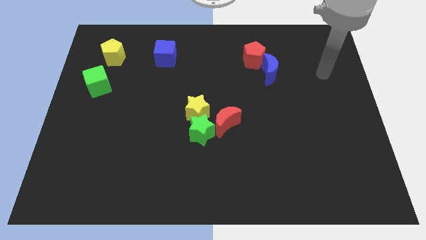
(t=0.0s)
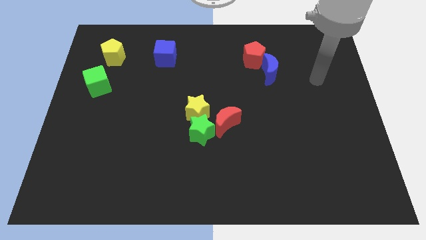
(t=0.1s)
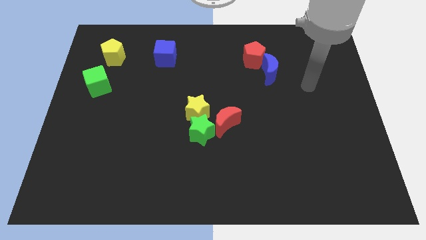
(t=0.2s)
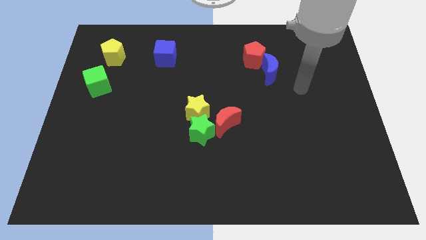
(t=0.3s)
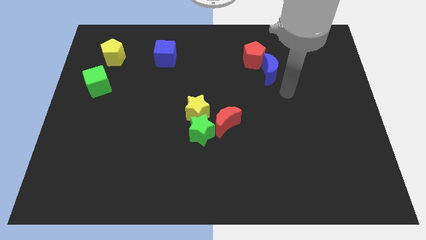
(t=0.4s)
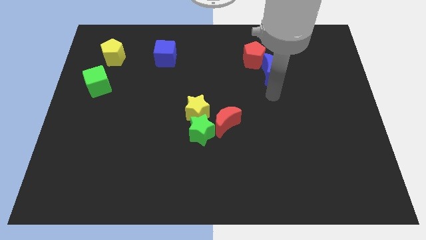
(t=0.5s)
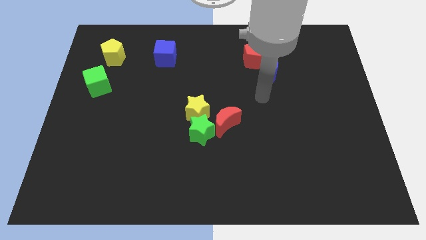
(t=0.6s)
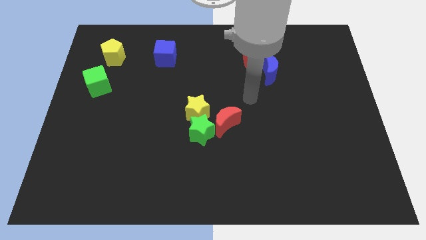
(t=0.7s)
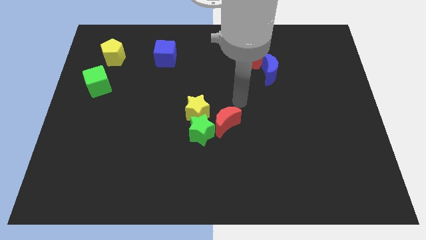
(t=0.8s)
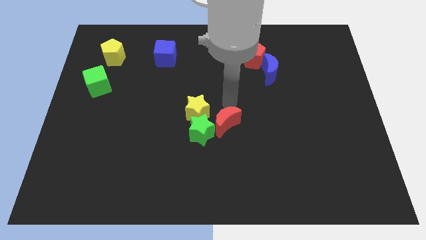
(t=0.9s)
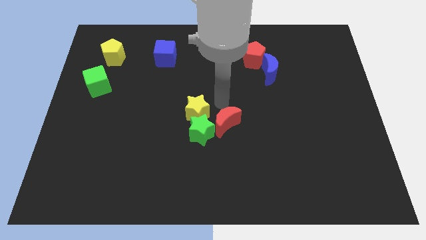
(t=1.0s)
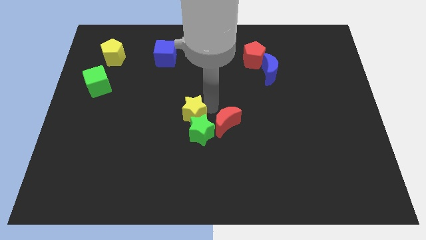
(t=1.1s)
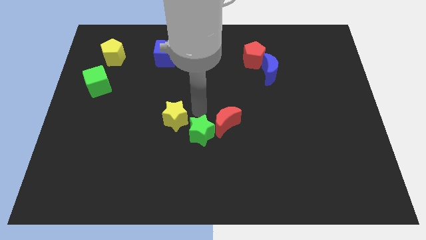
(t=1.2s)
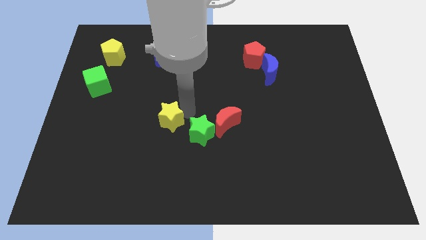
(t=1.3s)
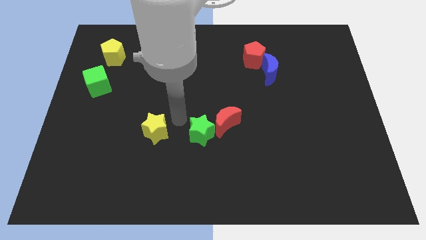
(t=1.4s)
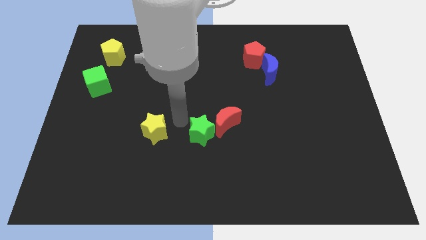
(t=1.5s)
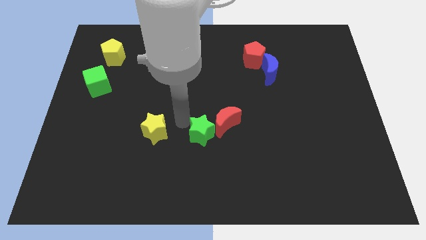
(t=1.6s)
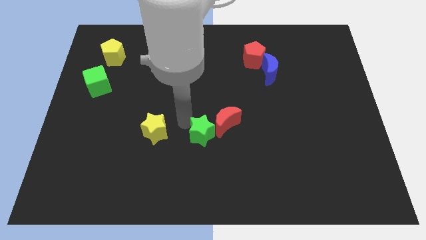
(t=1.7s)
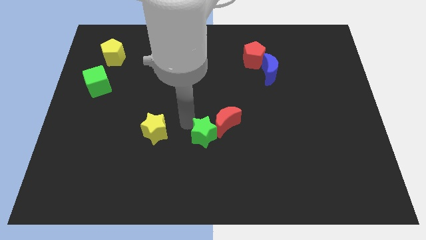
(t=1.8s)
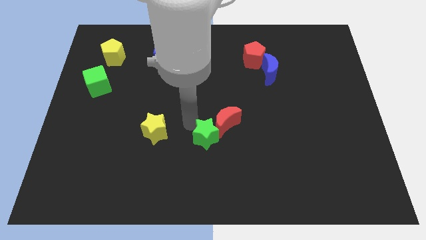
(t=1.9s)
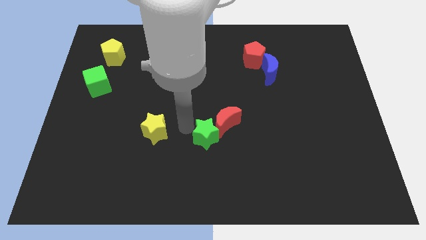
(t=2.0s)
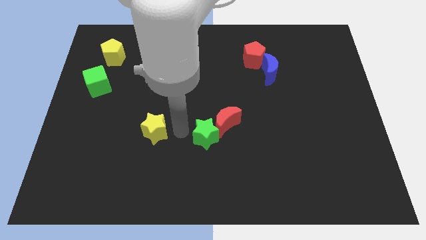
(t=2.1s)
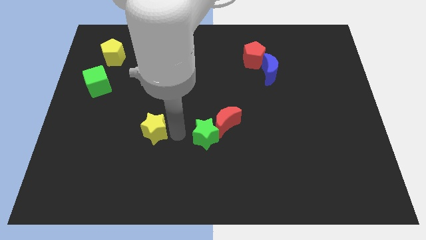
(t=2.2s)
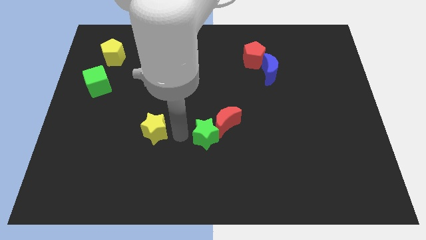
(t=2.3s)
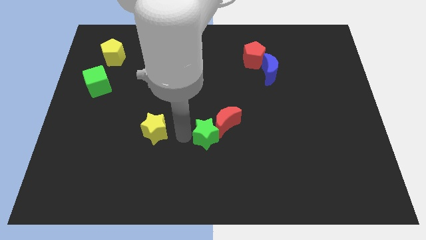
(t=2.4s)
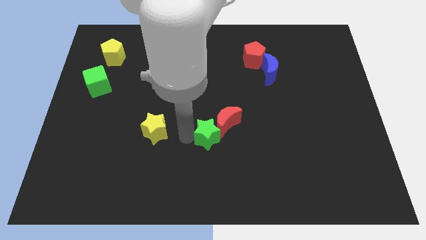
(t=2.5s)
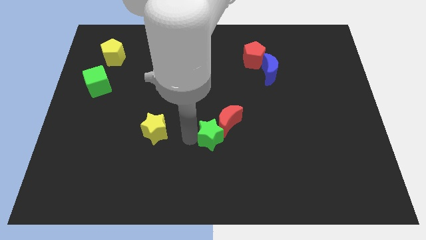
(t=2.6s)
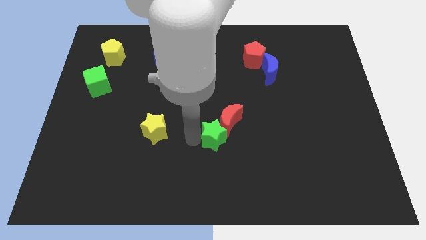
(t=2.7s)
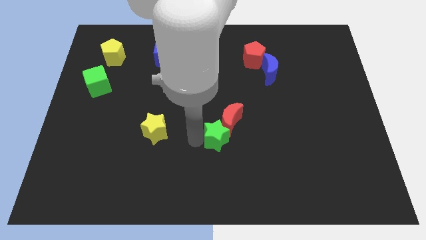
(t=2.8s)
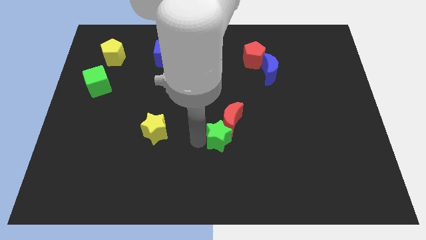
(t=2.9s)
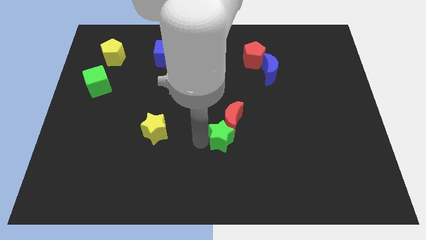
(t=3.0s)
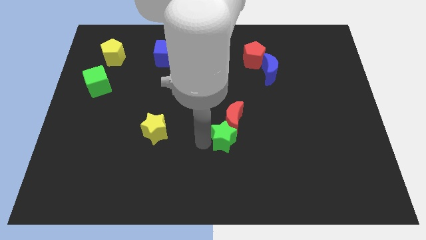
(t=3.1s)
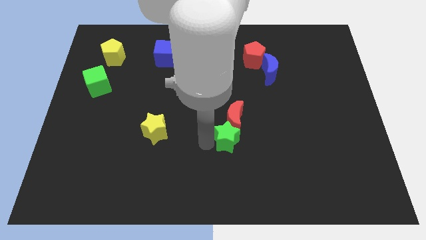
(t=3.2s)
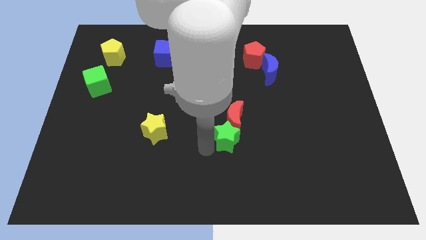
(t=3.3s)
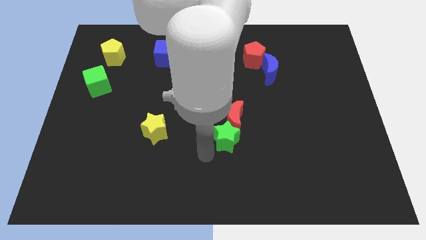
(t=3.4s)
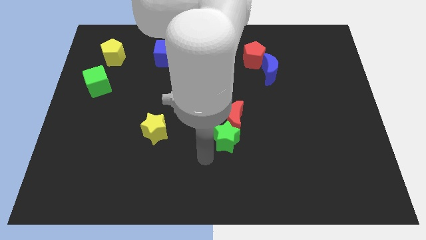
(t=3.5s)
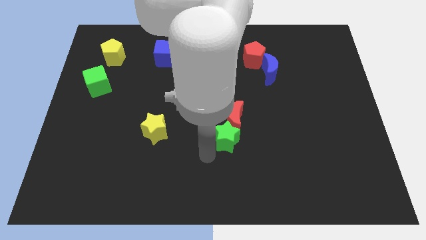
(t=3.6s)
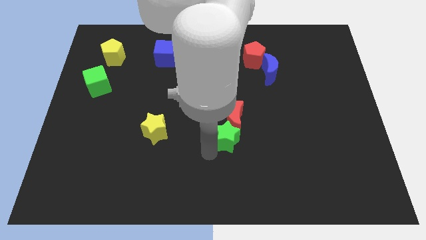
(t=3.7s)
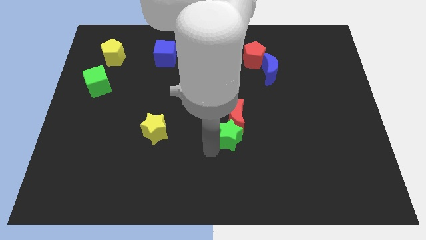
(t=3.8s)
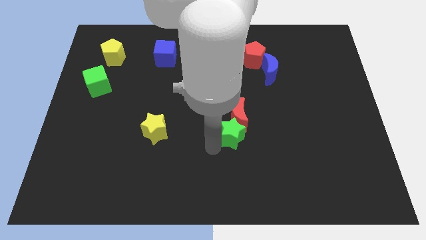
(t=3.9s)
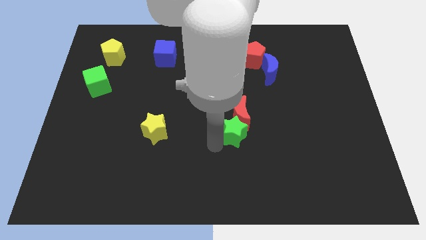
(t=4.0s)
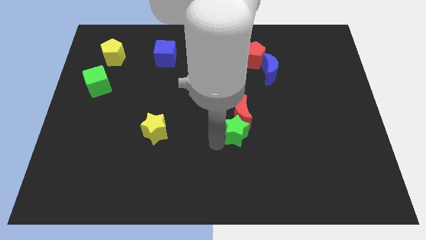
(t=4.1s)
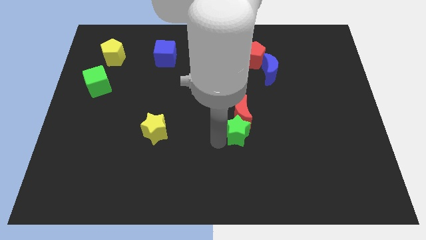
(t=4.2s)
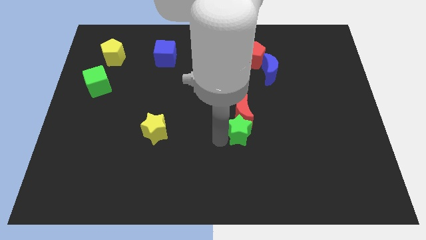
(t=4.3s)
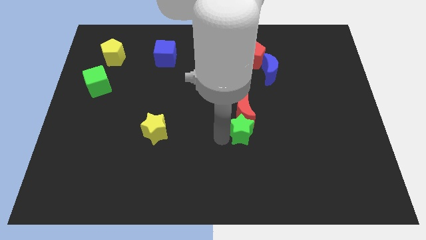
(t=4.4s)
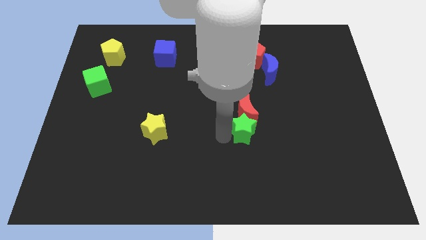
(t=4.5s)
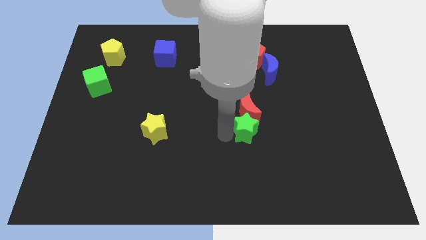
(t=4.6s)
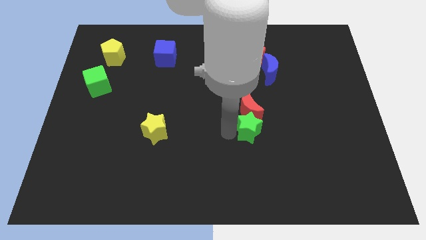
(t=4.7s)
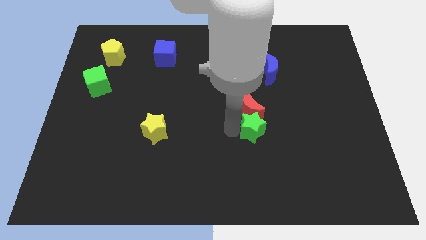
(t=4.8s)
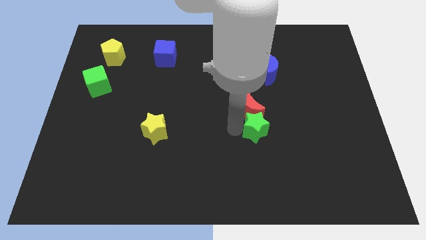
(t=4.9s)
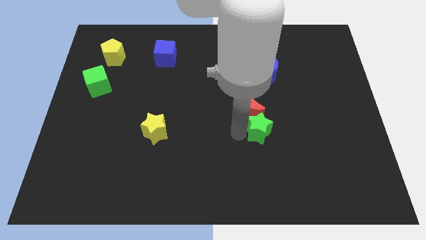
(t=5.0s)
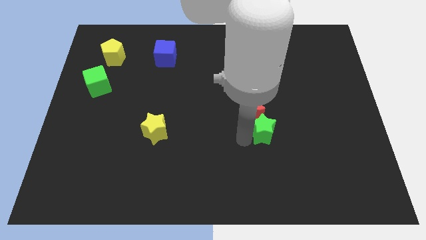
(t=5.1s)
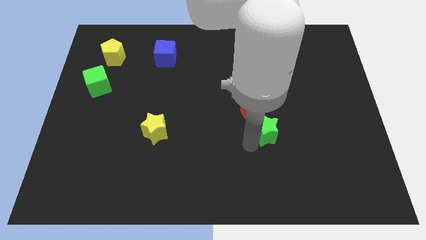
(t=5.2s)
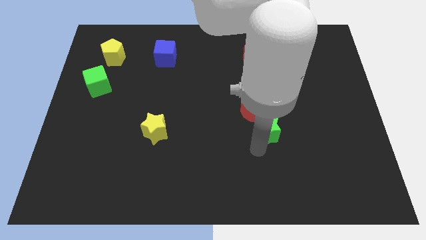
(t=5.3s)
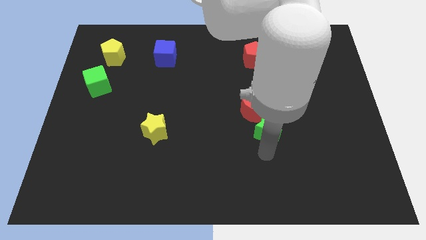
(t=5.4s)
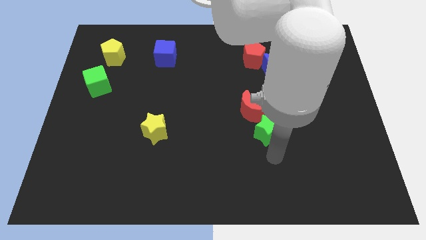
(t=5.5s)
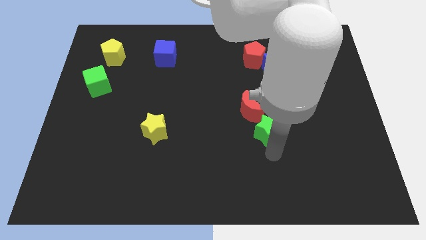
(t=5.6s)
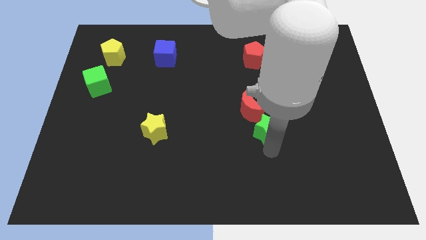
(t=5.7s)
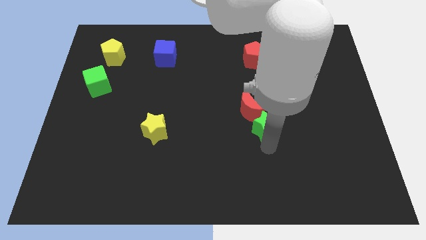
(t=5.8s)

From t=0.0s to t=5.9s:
move the green star a little bit upwards and to the right

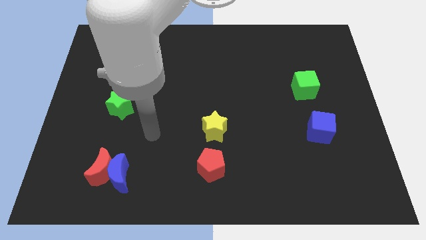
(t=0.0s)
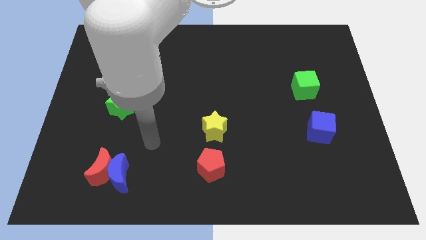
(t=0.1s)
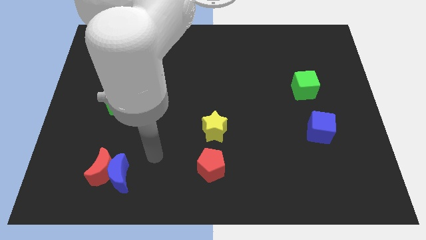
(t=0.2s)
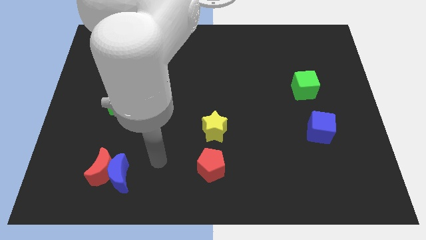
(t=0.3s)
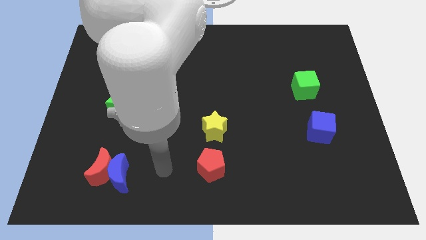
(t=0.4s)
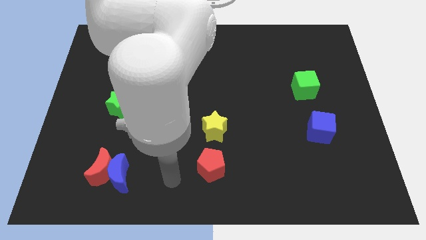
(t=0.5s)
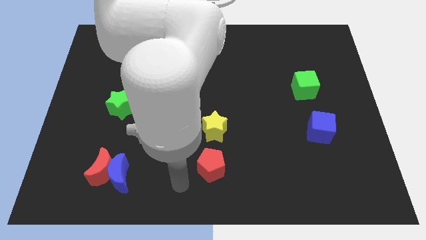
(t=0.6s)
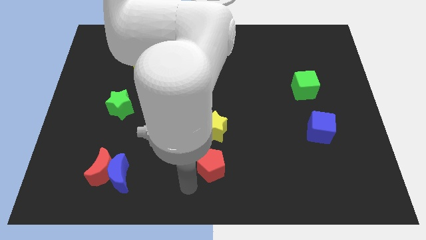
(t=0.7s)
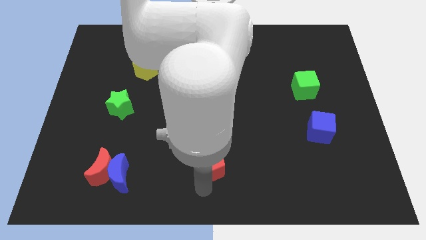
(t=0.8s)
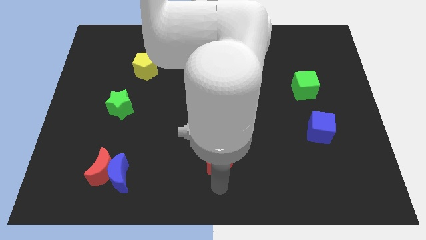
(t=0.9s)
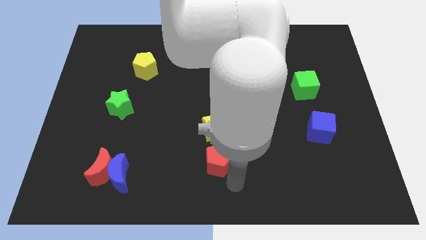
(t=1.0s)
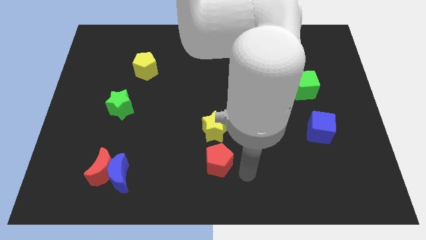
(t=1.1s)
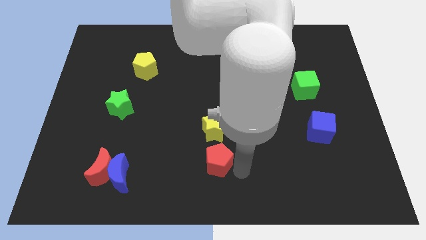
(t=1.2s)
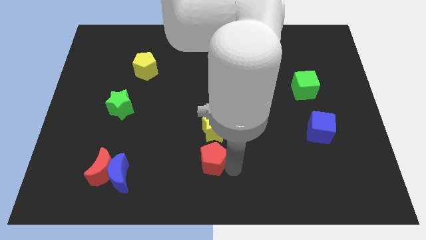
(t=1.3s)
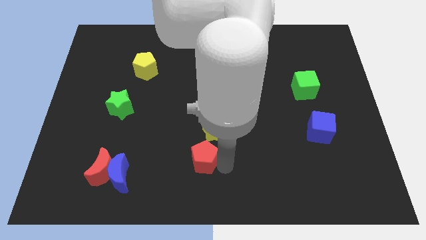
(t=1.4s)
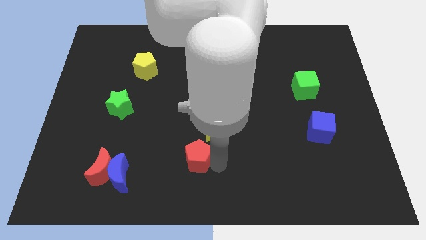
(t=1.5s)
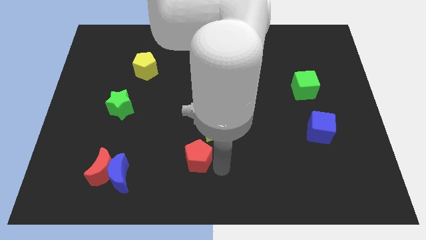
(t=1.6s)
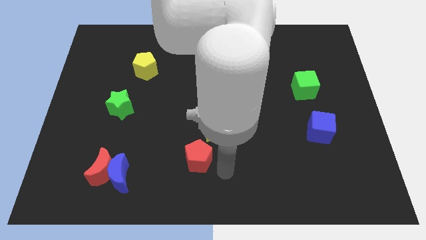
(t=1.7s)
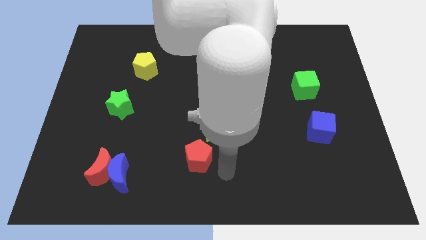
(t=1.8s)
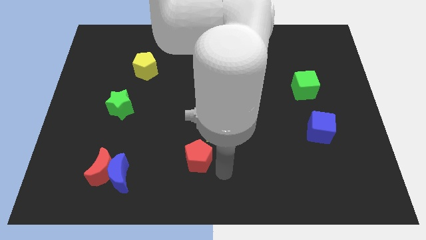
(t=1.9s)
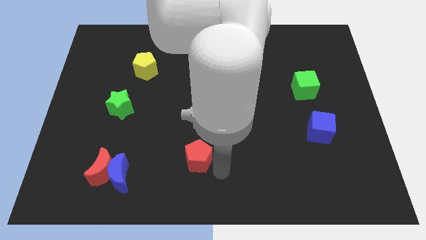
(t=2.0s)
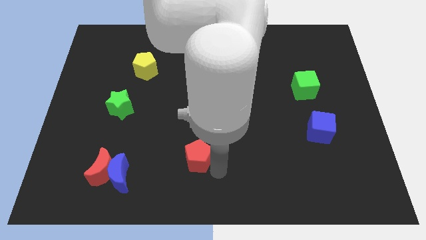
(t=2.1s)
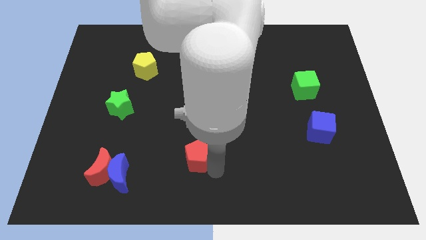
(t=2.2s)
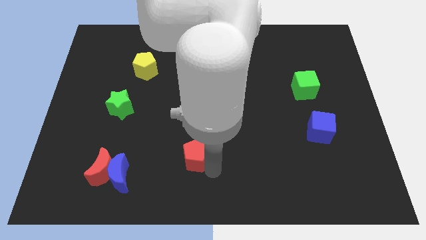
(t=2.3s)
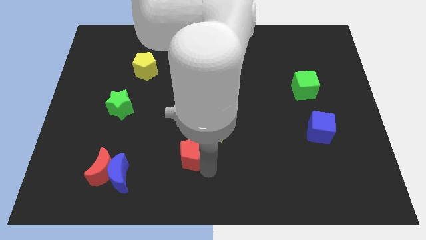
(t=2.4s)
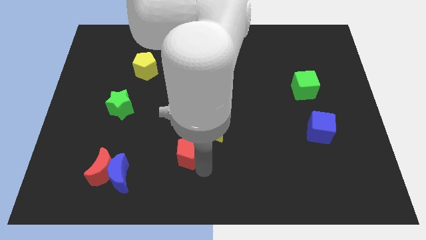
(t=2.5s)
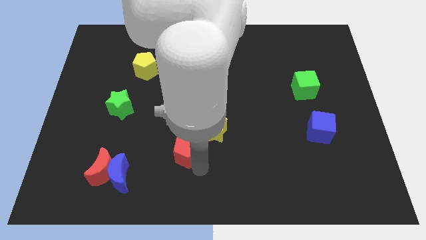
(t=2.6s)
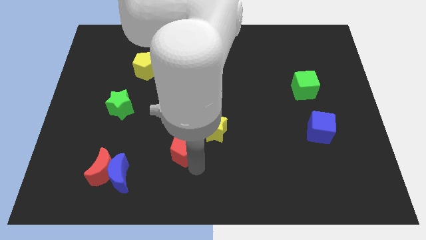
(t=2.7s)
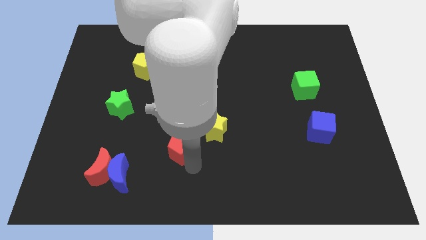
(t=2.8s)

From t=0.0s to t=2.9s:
slightly push the red pentagon up and to the left
